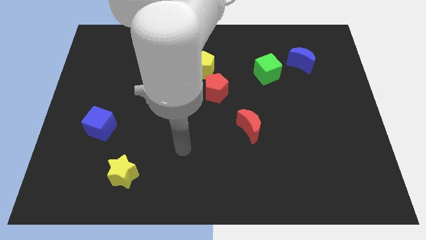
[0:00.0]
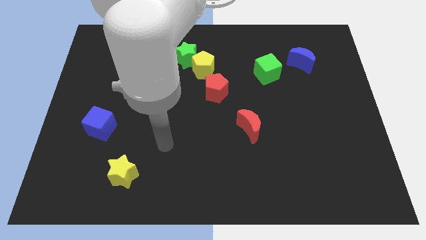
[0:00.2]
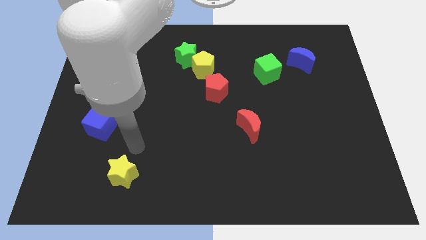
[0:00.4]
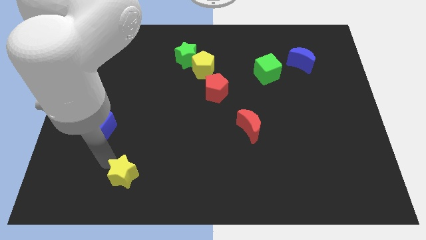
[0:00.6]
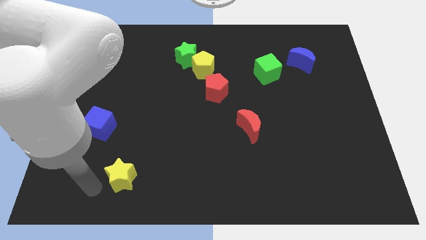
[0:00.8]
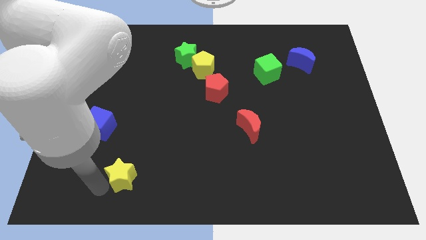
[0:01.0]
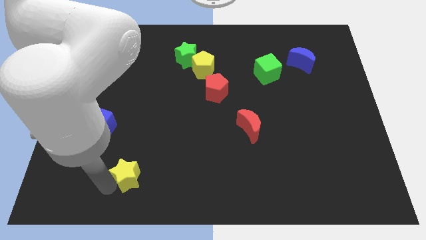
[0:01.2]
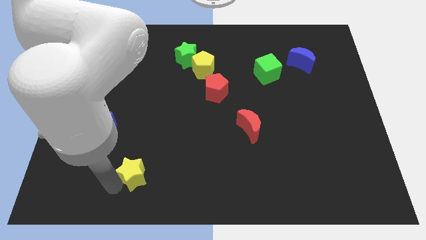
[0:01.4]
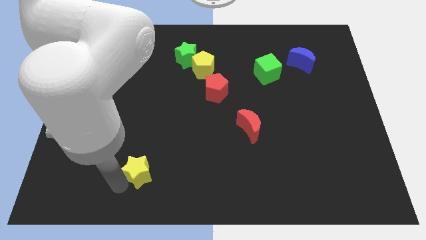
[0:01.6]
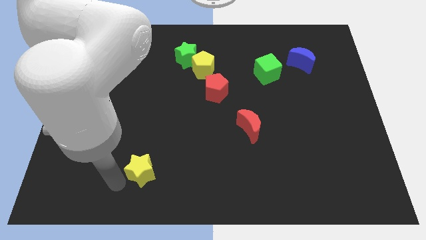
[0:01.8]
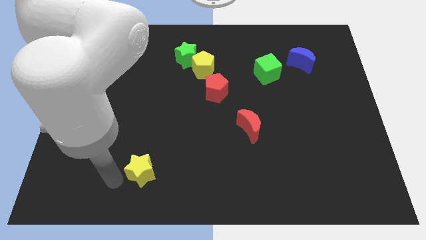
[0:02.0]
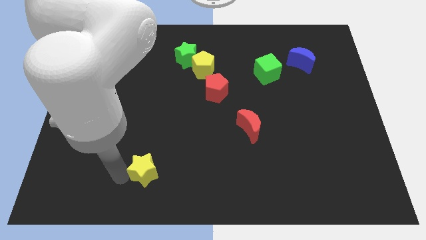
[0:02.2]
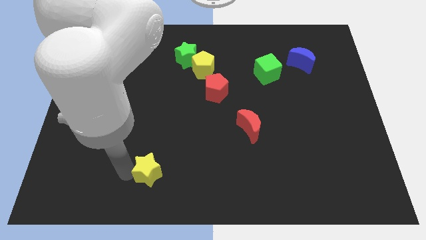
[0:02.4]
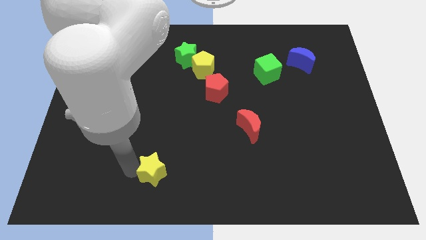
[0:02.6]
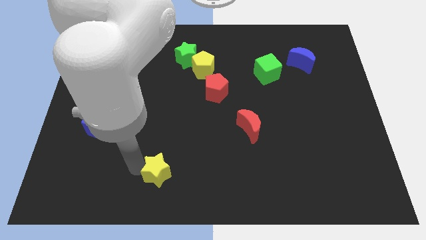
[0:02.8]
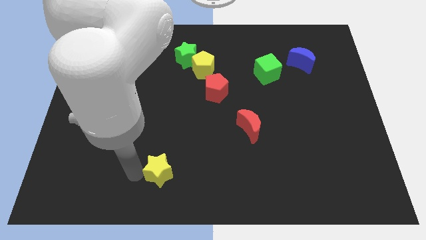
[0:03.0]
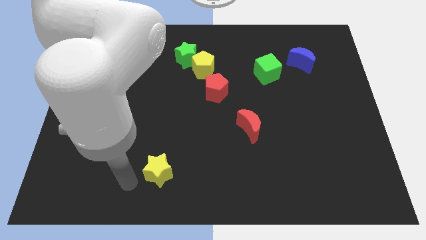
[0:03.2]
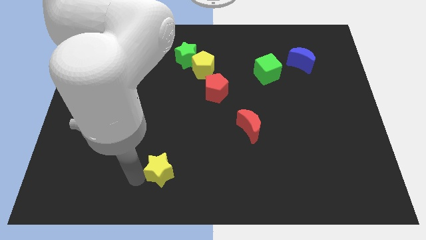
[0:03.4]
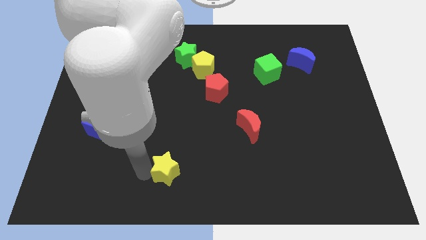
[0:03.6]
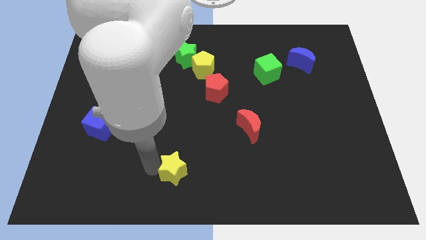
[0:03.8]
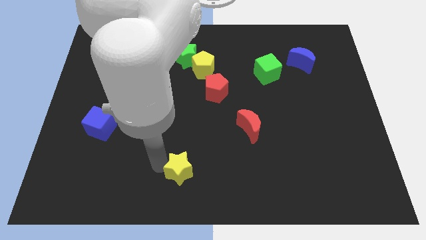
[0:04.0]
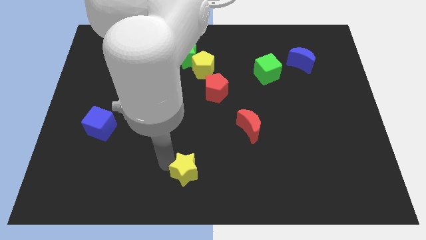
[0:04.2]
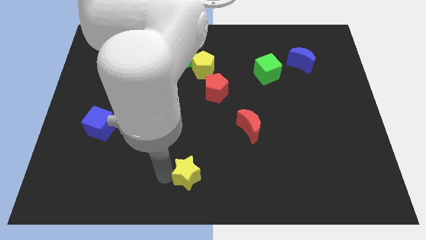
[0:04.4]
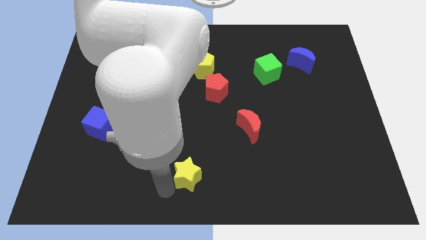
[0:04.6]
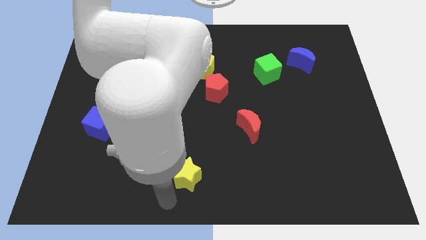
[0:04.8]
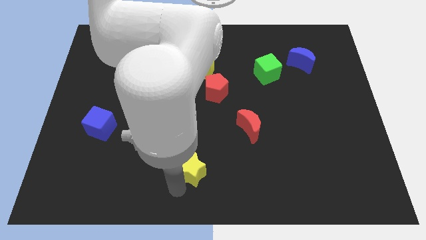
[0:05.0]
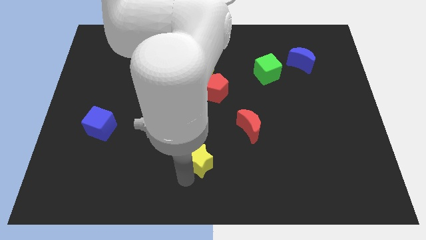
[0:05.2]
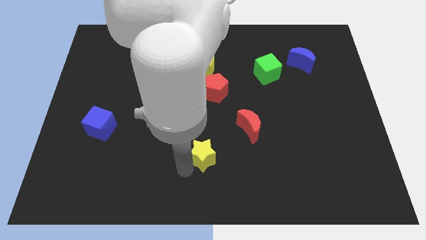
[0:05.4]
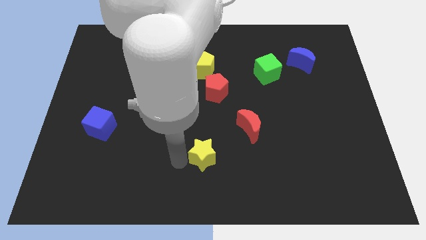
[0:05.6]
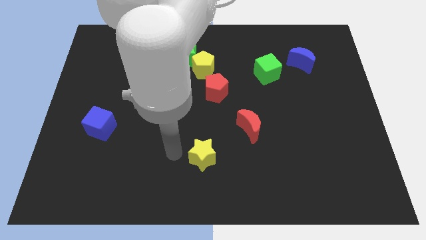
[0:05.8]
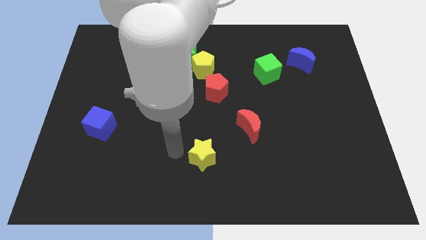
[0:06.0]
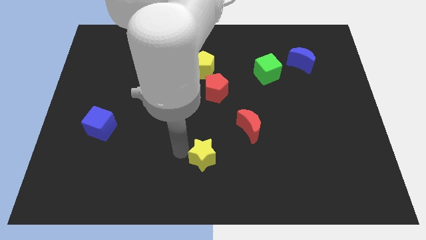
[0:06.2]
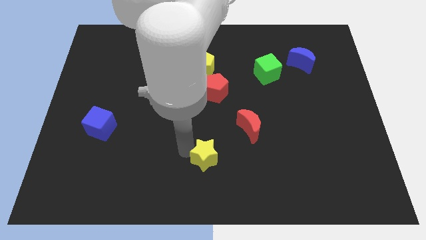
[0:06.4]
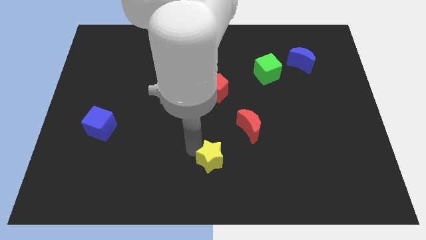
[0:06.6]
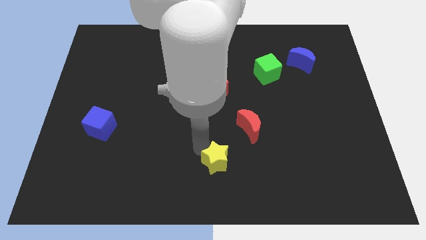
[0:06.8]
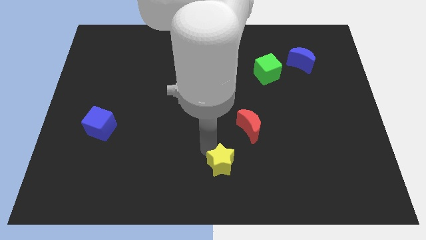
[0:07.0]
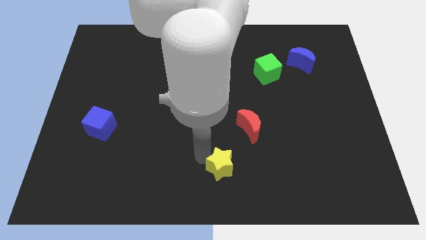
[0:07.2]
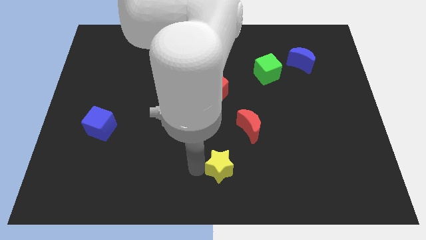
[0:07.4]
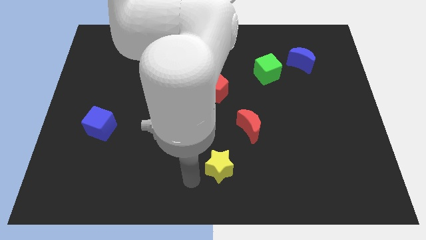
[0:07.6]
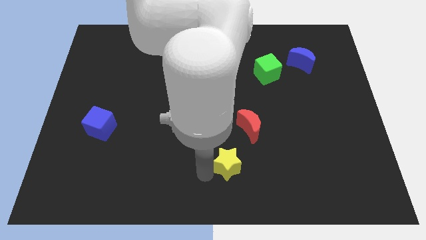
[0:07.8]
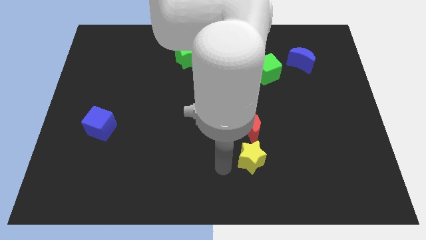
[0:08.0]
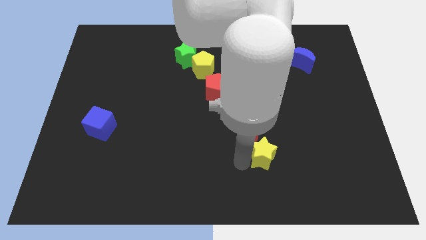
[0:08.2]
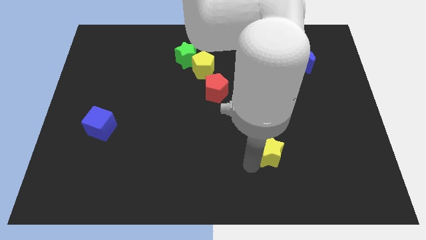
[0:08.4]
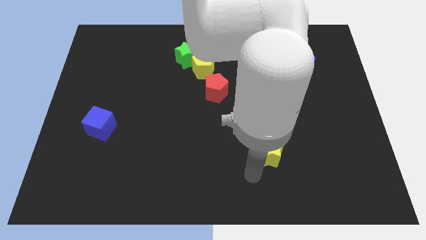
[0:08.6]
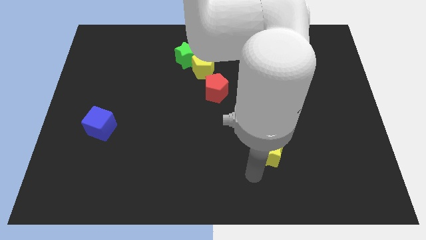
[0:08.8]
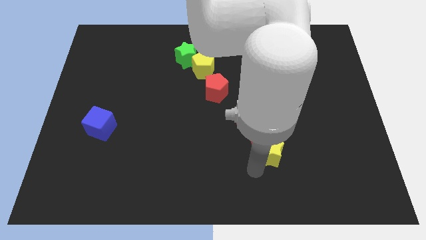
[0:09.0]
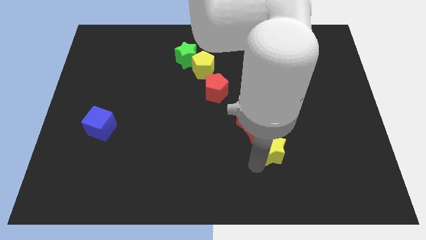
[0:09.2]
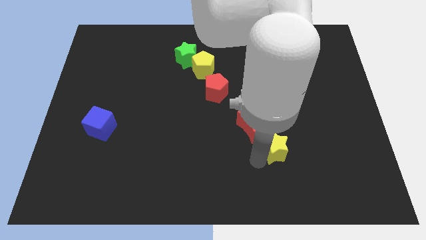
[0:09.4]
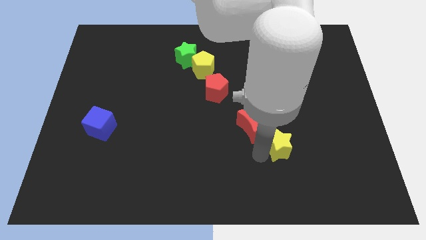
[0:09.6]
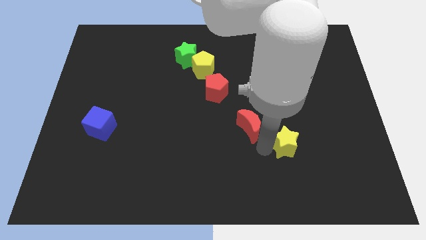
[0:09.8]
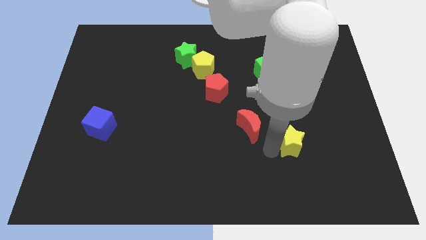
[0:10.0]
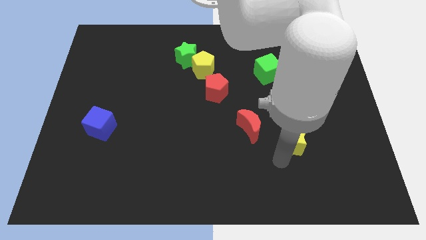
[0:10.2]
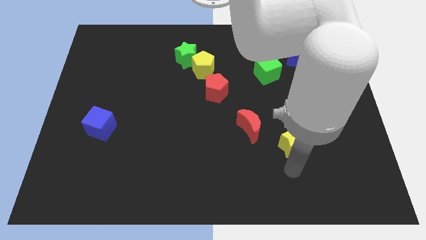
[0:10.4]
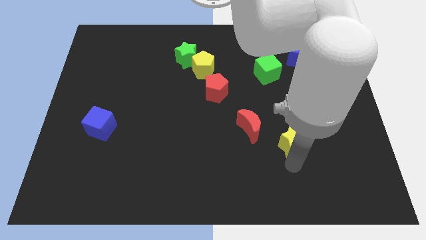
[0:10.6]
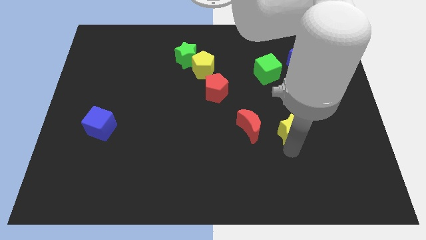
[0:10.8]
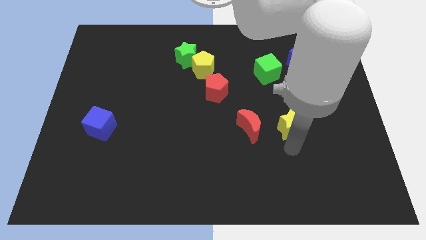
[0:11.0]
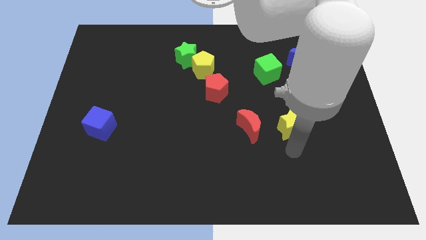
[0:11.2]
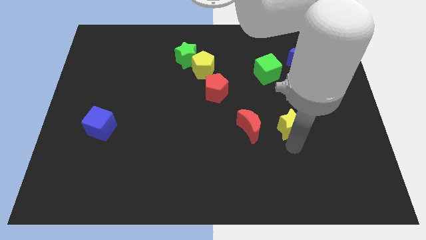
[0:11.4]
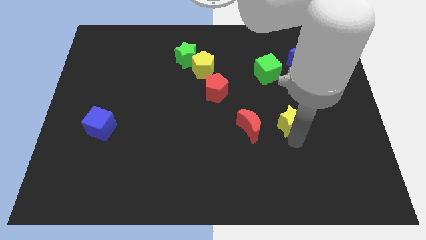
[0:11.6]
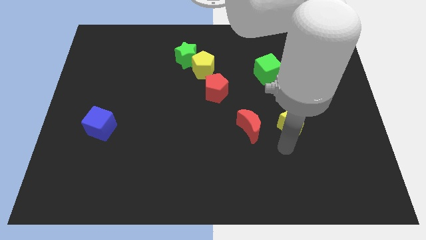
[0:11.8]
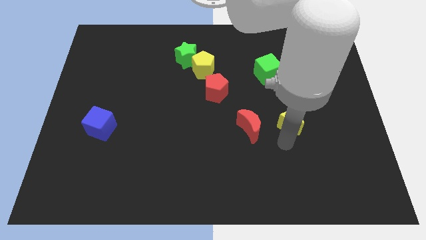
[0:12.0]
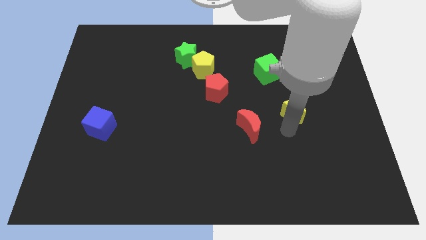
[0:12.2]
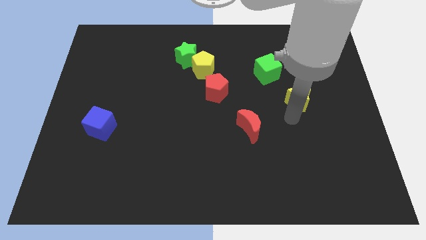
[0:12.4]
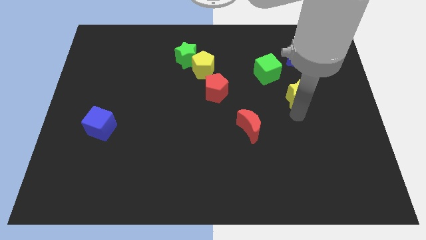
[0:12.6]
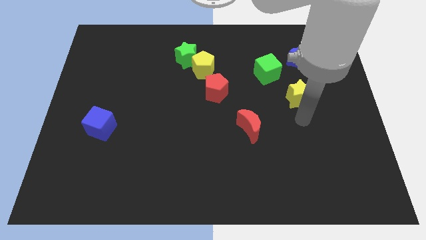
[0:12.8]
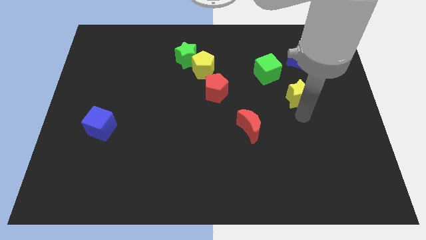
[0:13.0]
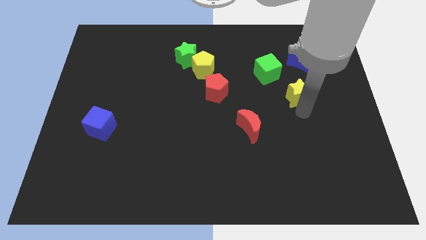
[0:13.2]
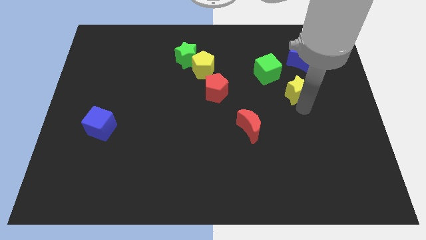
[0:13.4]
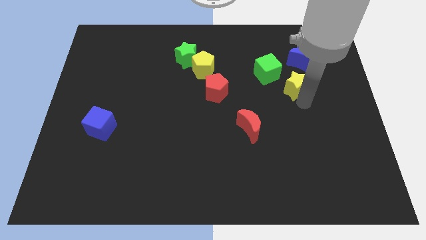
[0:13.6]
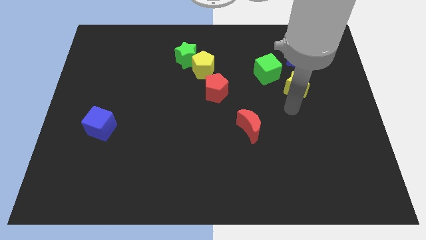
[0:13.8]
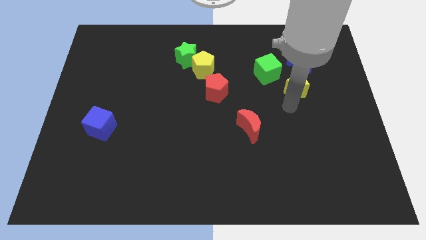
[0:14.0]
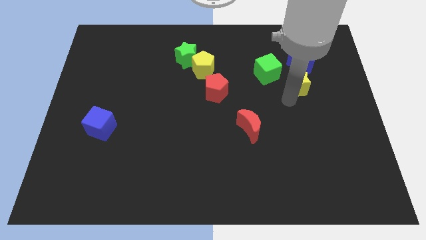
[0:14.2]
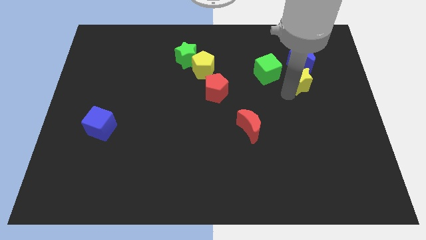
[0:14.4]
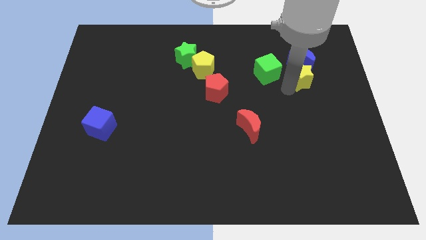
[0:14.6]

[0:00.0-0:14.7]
move the yellow star towards the blue moon
